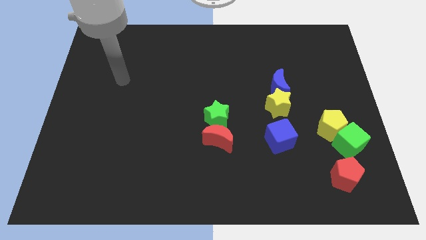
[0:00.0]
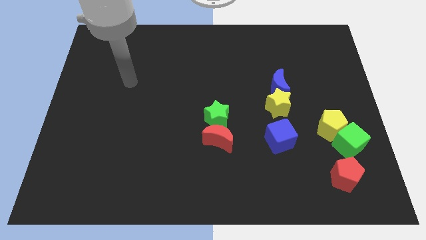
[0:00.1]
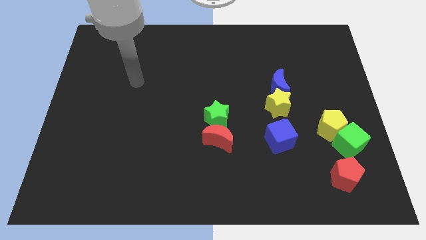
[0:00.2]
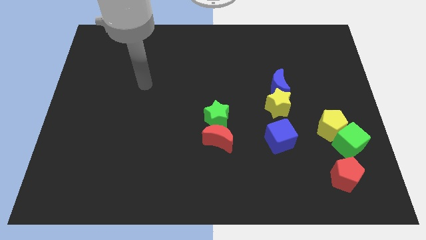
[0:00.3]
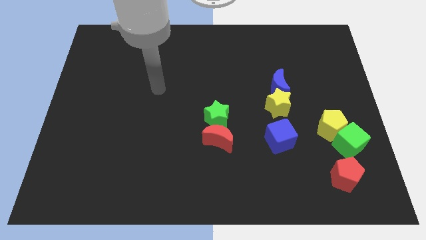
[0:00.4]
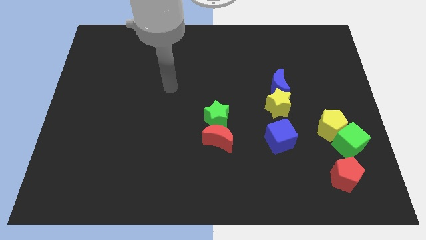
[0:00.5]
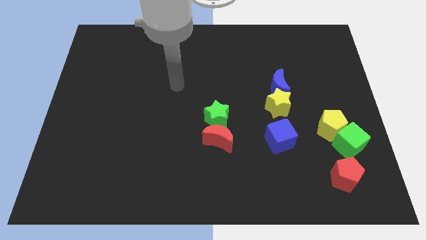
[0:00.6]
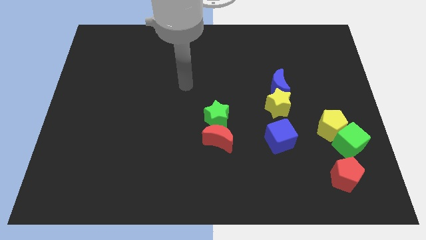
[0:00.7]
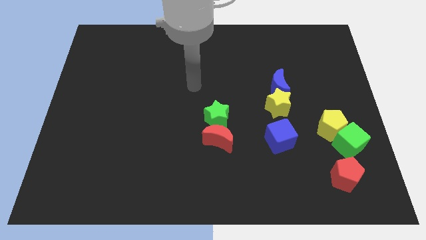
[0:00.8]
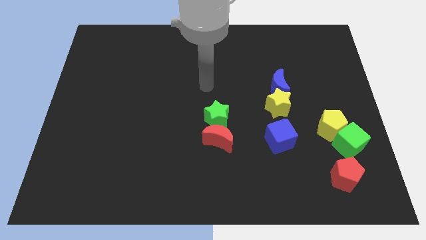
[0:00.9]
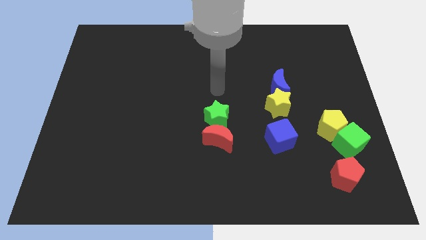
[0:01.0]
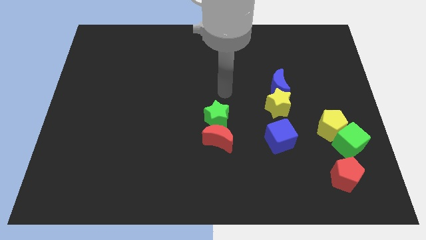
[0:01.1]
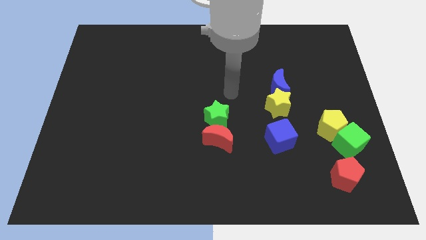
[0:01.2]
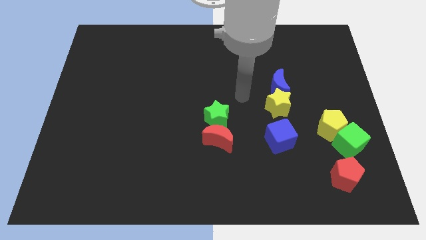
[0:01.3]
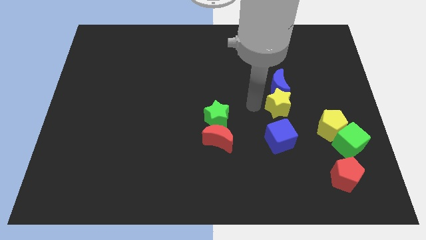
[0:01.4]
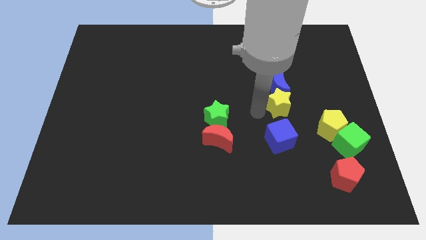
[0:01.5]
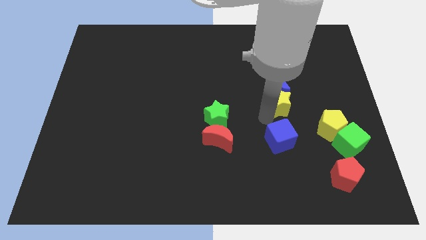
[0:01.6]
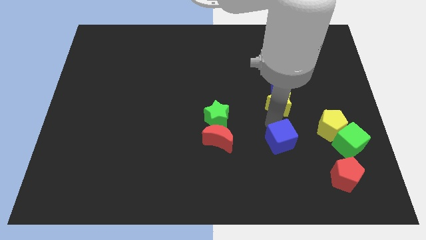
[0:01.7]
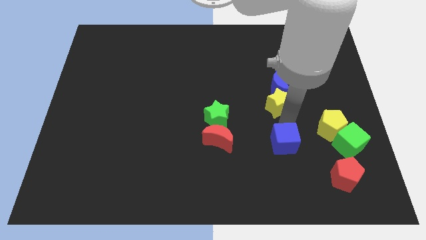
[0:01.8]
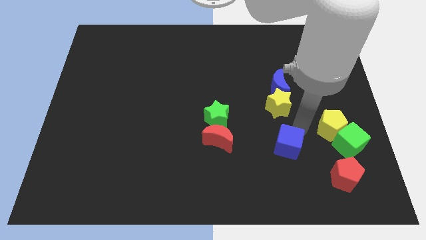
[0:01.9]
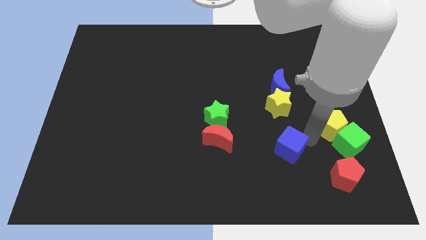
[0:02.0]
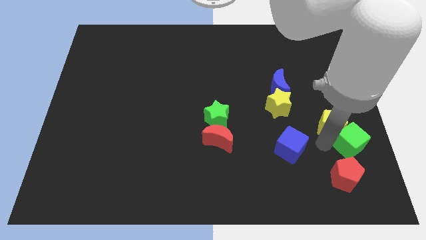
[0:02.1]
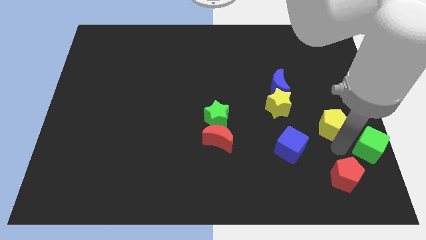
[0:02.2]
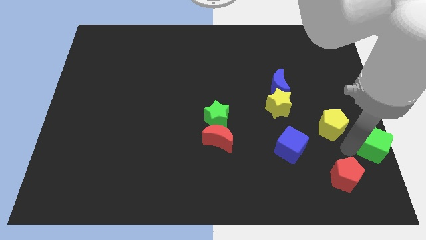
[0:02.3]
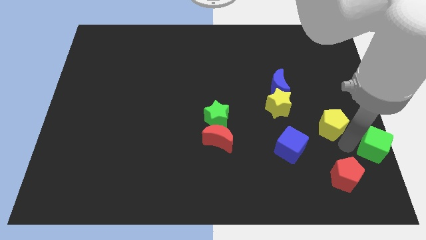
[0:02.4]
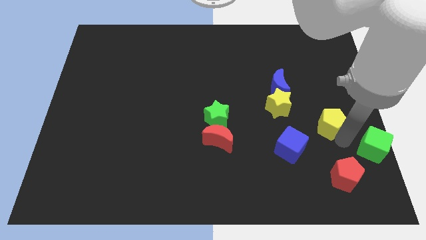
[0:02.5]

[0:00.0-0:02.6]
pull the yellow pentagon apart from the green cube

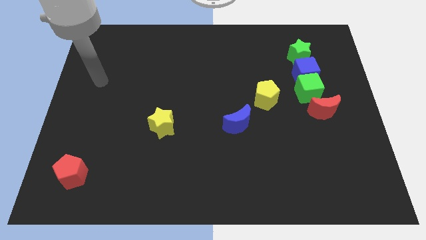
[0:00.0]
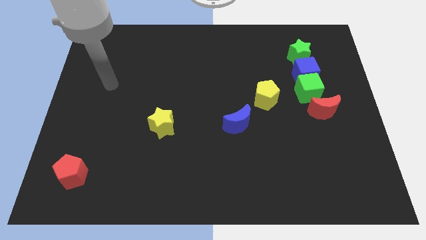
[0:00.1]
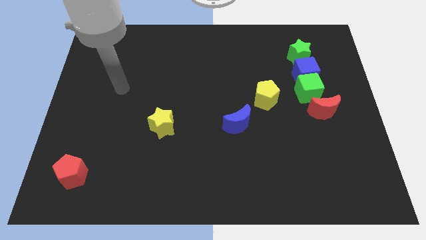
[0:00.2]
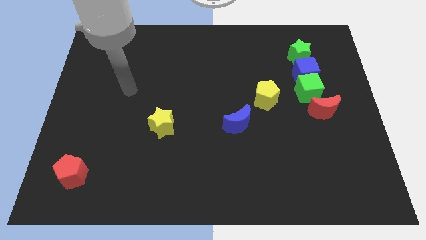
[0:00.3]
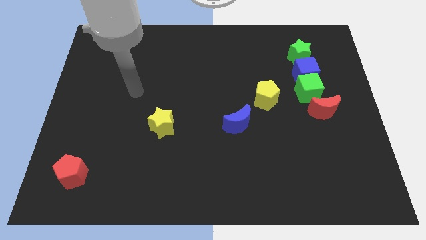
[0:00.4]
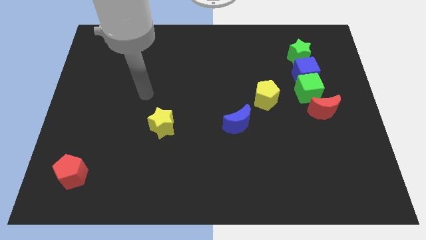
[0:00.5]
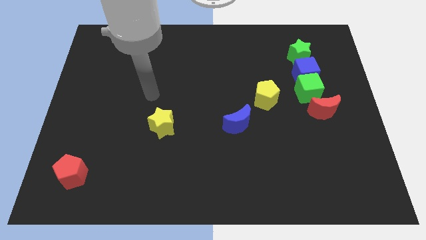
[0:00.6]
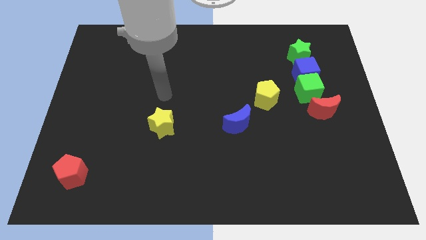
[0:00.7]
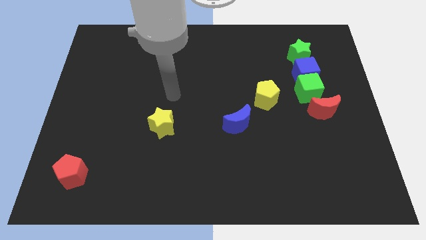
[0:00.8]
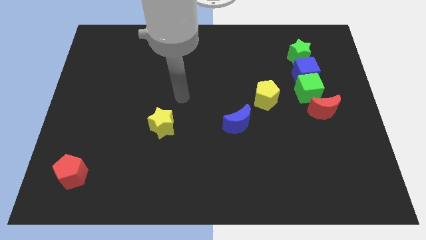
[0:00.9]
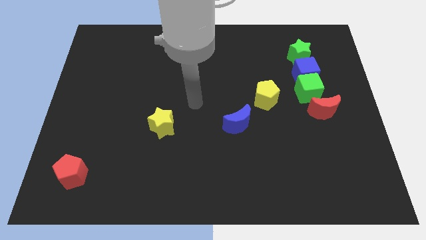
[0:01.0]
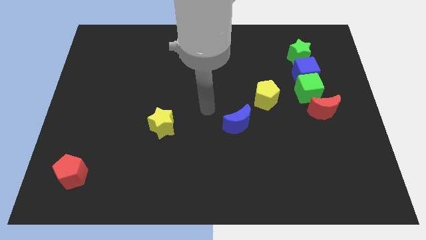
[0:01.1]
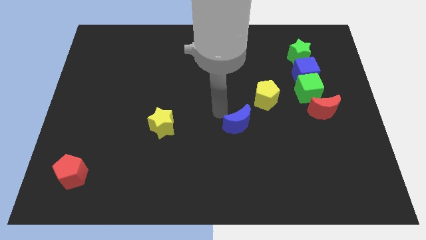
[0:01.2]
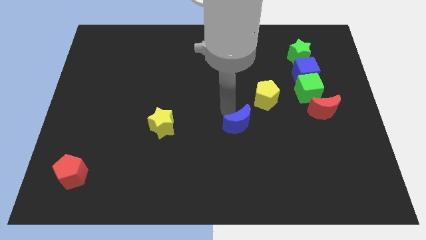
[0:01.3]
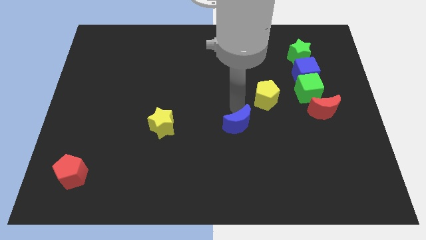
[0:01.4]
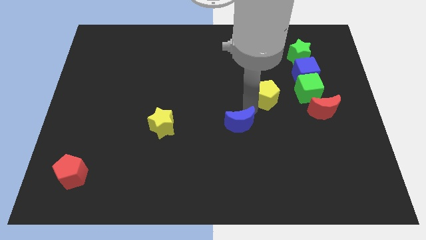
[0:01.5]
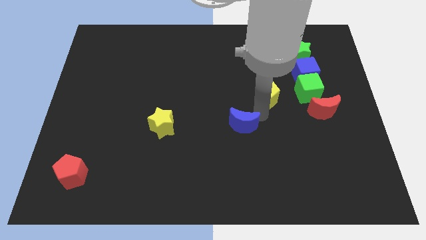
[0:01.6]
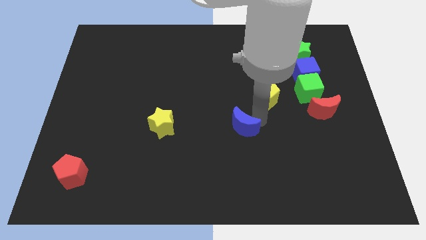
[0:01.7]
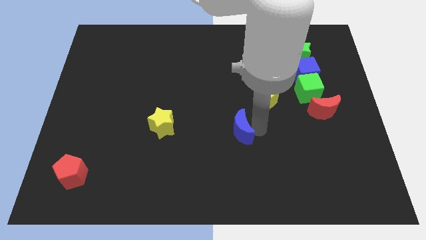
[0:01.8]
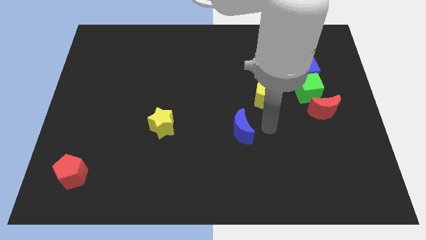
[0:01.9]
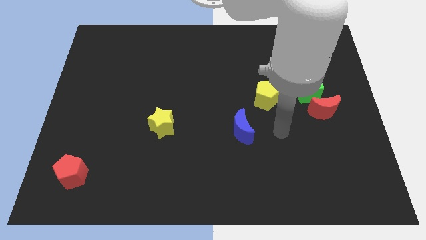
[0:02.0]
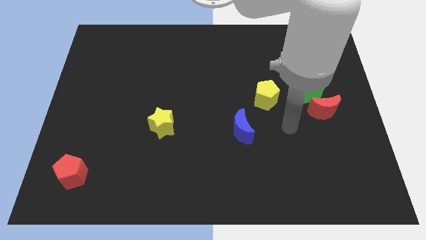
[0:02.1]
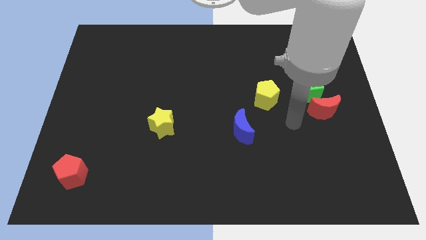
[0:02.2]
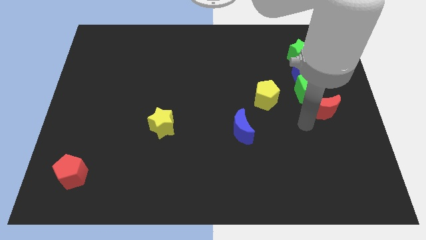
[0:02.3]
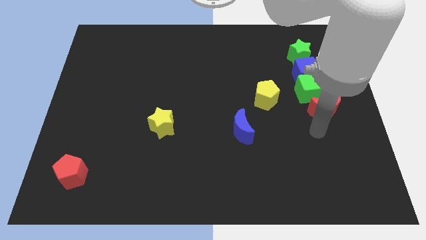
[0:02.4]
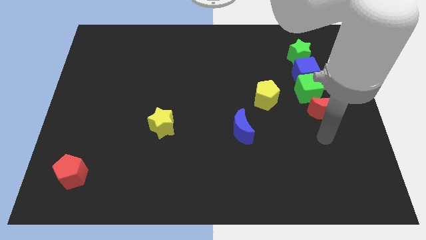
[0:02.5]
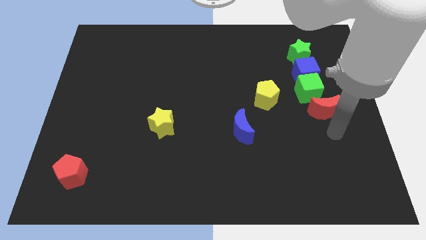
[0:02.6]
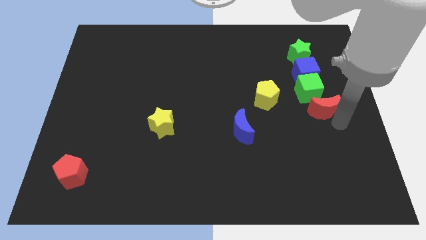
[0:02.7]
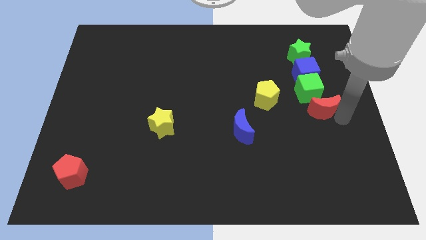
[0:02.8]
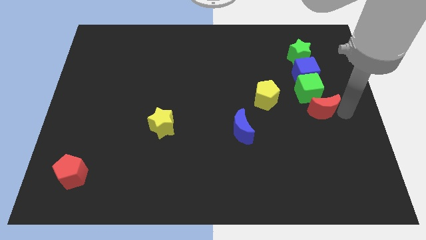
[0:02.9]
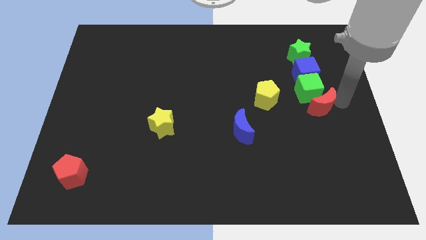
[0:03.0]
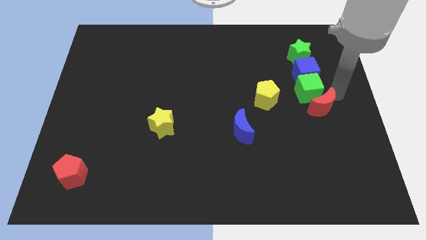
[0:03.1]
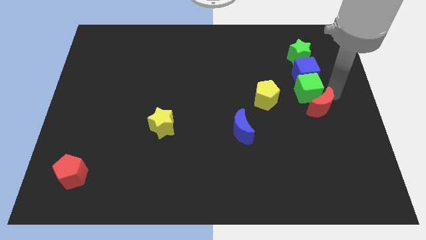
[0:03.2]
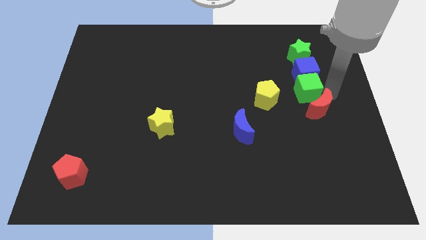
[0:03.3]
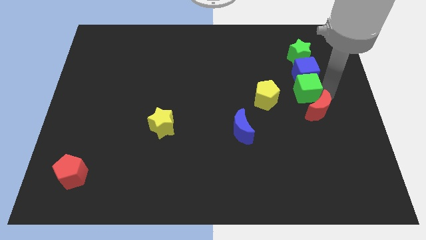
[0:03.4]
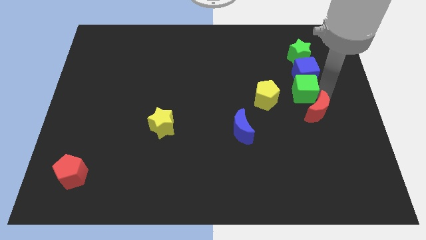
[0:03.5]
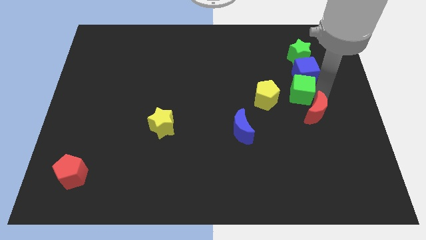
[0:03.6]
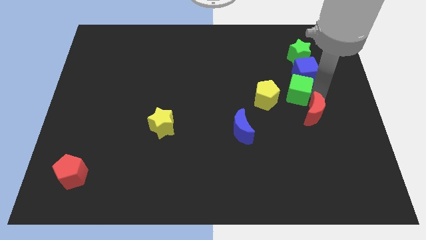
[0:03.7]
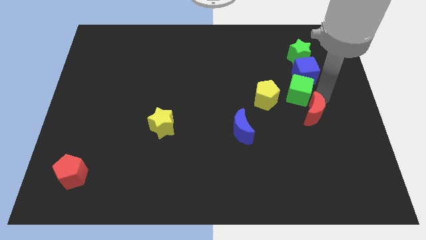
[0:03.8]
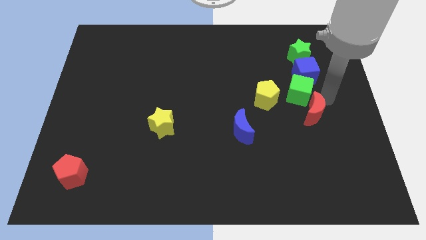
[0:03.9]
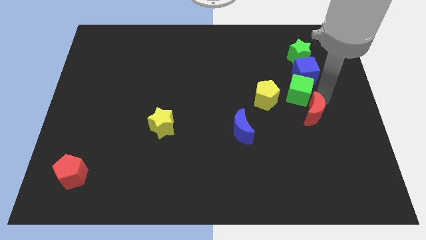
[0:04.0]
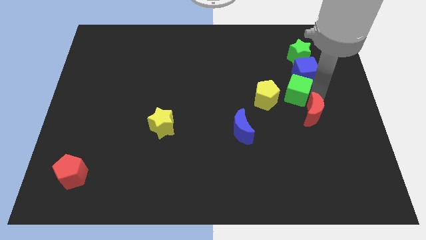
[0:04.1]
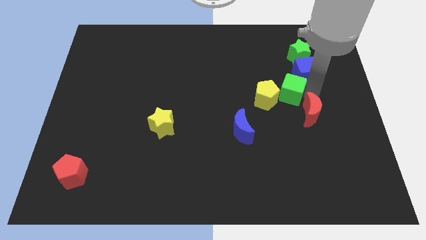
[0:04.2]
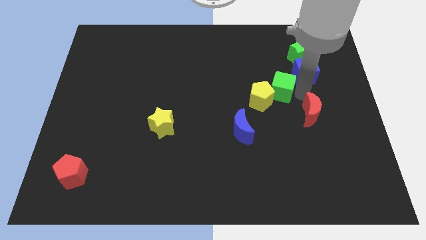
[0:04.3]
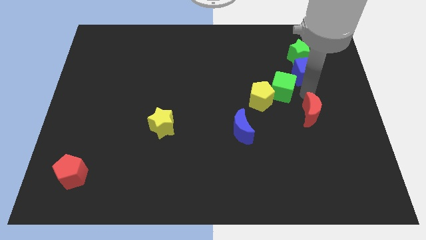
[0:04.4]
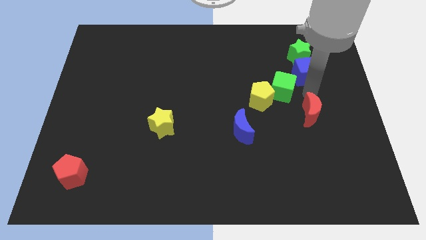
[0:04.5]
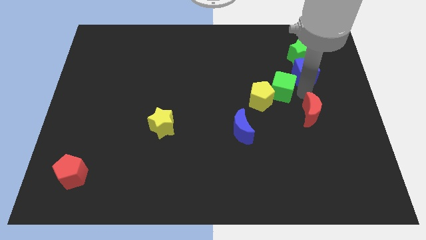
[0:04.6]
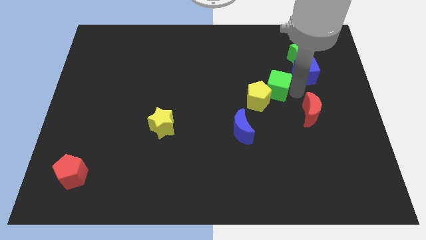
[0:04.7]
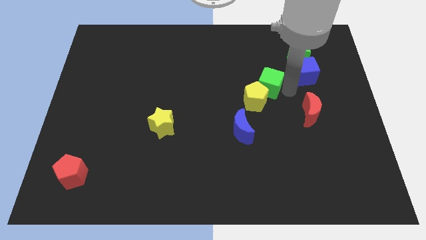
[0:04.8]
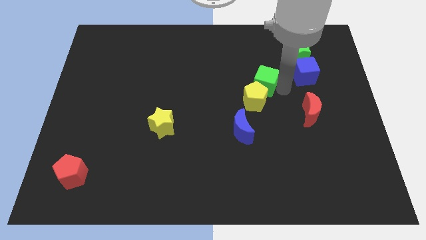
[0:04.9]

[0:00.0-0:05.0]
pull the green cube apart from the blue cube and red moon

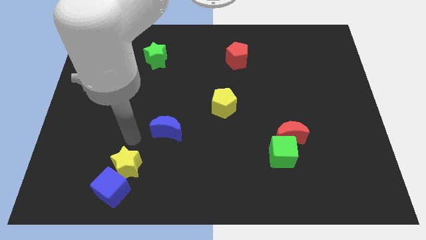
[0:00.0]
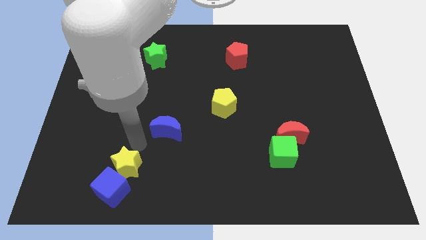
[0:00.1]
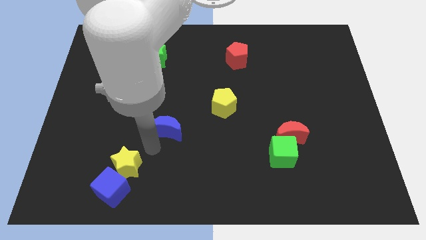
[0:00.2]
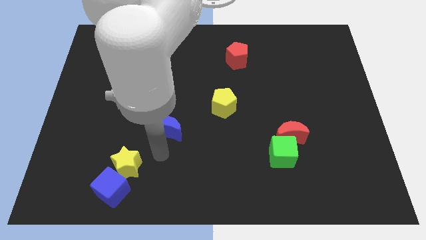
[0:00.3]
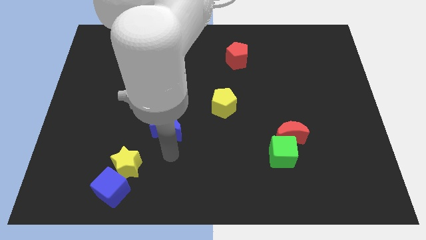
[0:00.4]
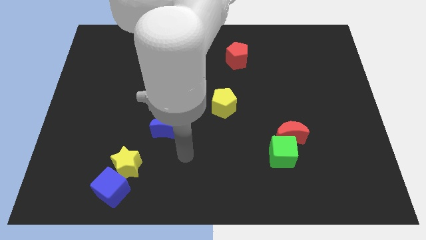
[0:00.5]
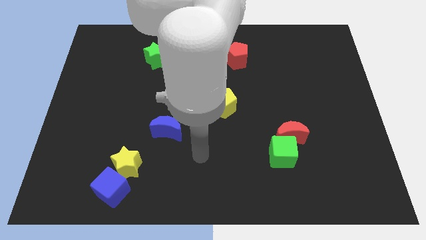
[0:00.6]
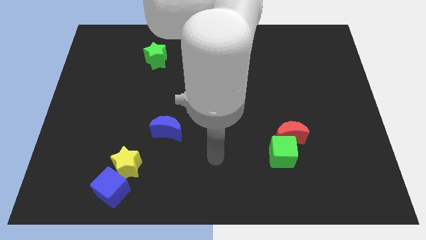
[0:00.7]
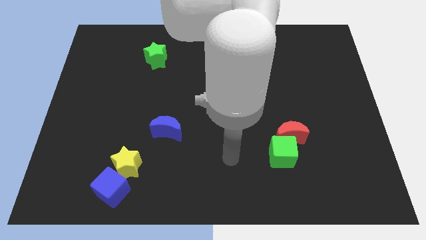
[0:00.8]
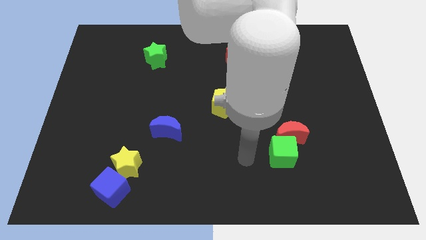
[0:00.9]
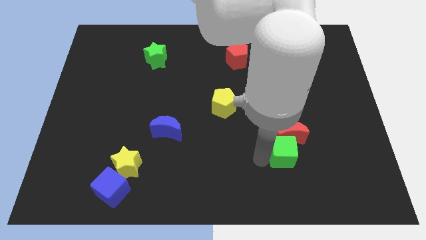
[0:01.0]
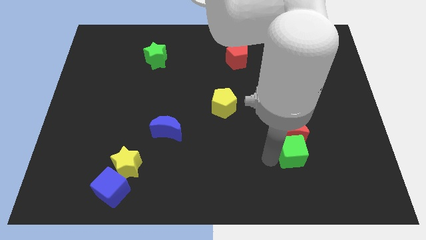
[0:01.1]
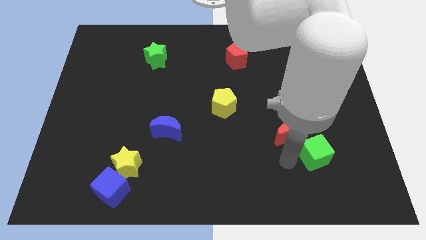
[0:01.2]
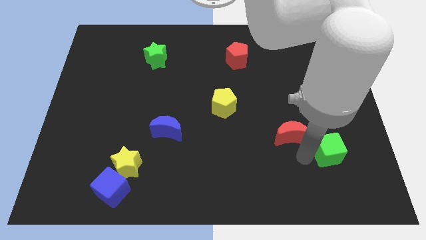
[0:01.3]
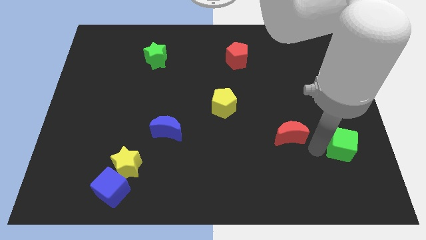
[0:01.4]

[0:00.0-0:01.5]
pull the red moon apart from the green cube

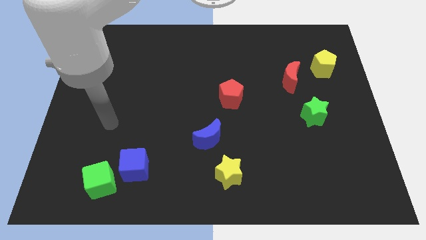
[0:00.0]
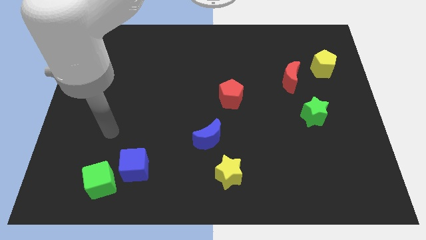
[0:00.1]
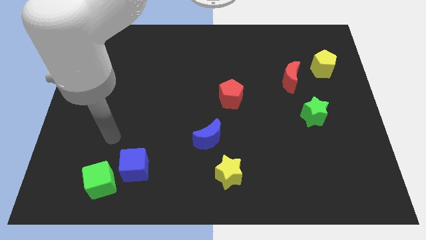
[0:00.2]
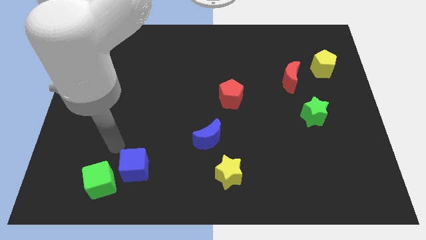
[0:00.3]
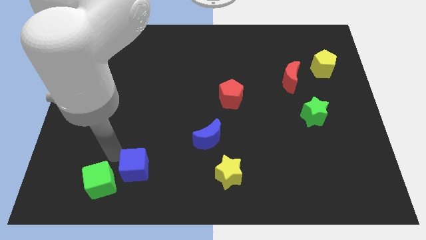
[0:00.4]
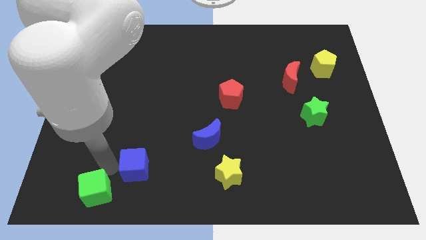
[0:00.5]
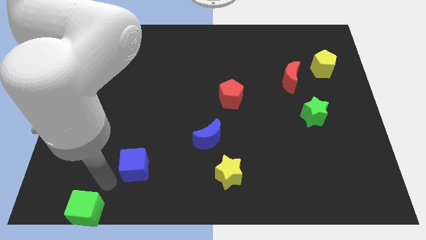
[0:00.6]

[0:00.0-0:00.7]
move the blue cube away from the green cube
